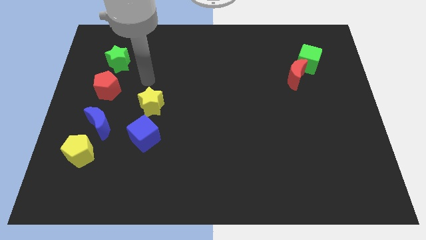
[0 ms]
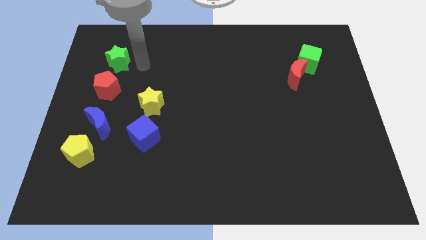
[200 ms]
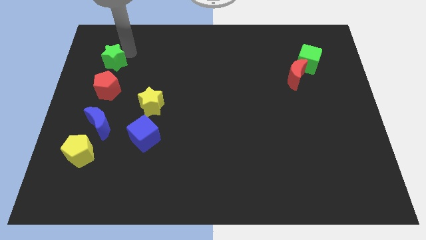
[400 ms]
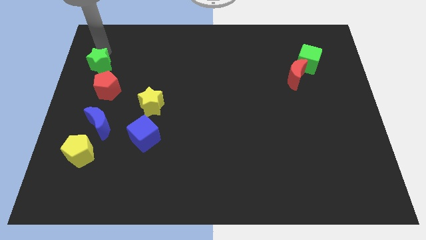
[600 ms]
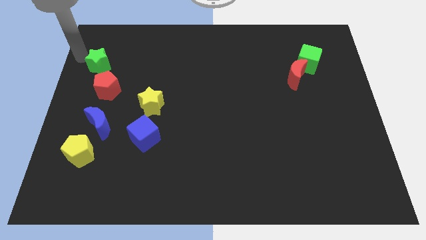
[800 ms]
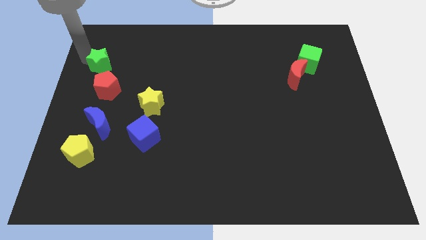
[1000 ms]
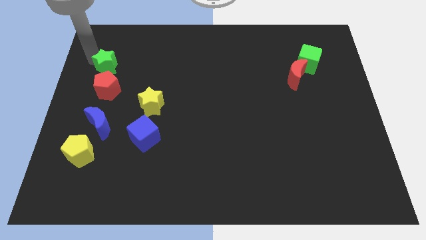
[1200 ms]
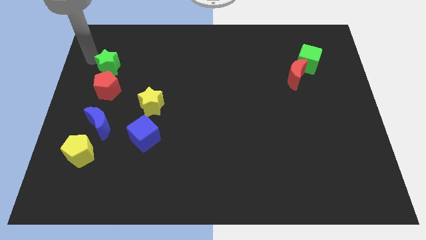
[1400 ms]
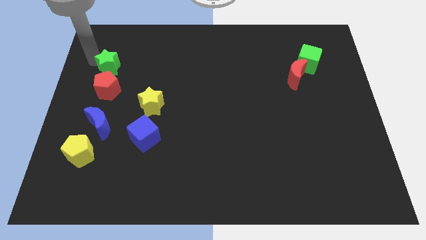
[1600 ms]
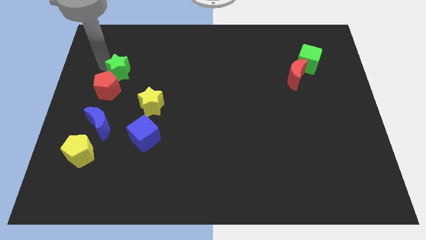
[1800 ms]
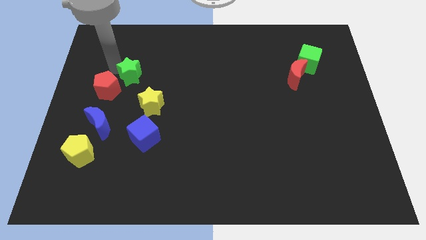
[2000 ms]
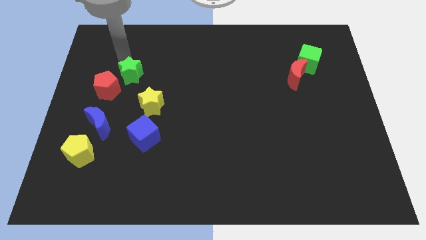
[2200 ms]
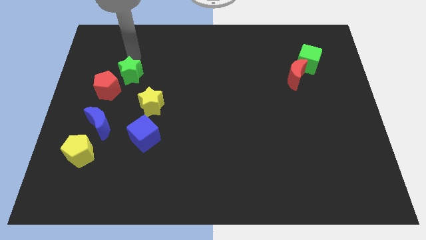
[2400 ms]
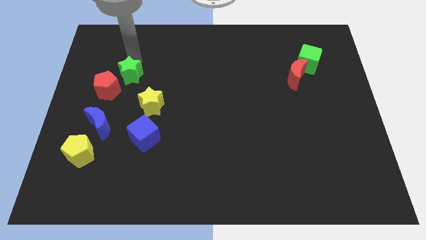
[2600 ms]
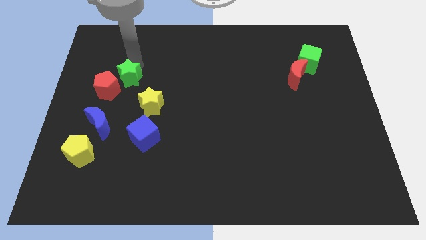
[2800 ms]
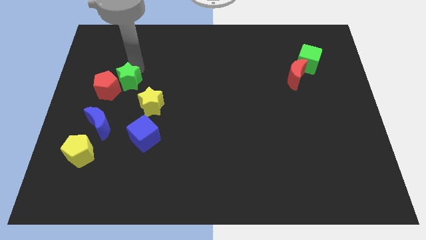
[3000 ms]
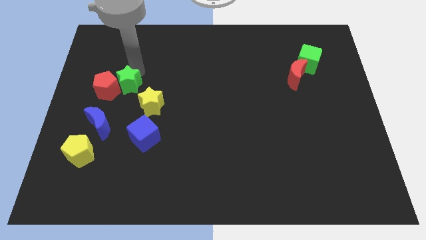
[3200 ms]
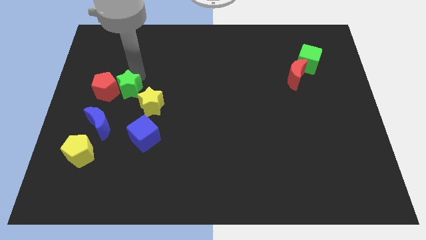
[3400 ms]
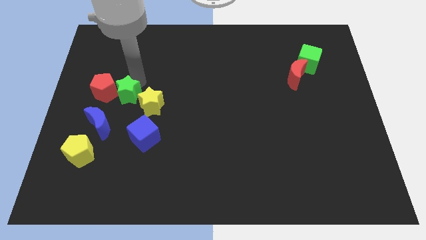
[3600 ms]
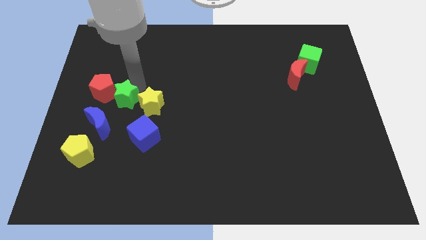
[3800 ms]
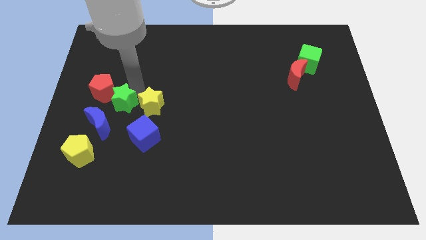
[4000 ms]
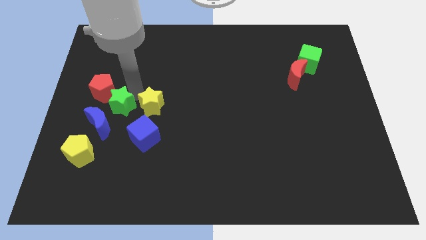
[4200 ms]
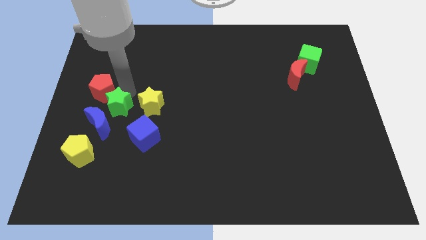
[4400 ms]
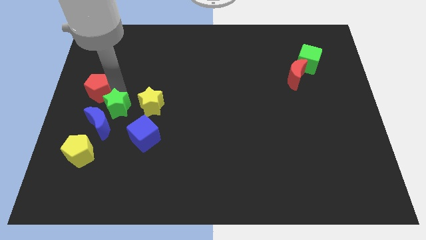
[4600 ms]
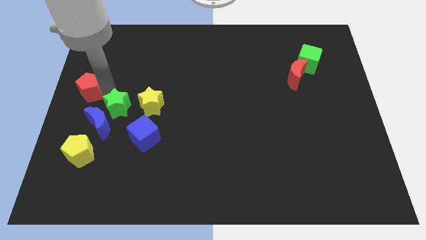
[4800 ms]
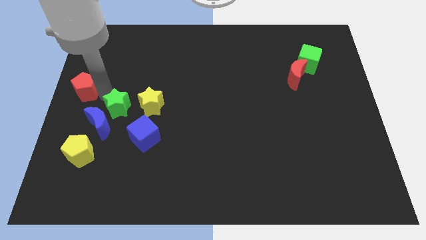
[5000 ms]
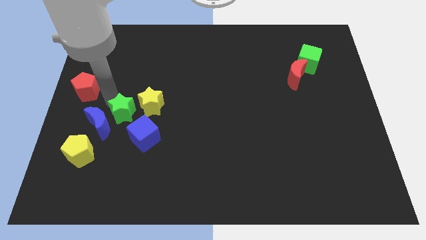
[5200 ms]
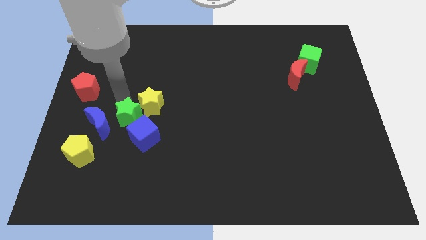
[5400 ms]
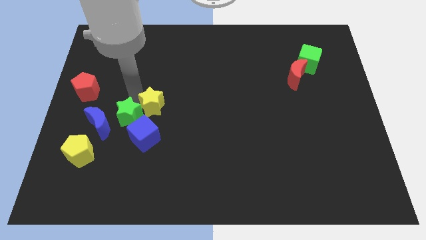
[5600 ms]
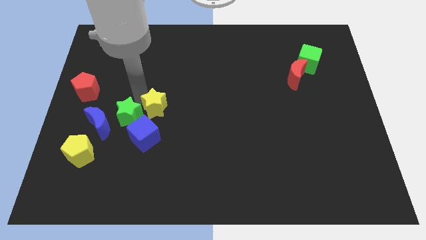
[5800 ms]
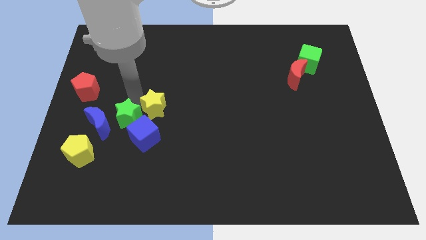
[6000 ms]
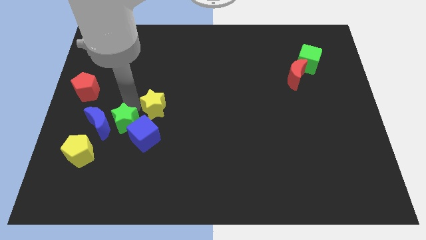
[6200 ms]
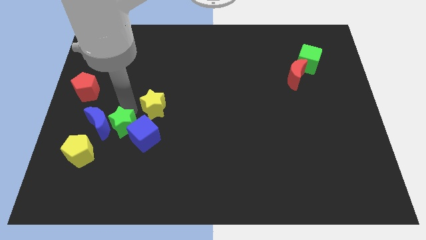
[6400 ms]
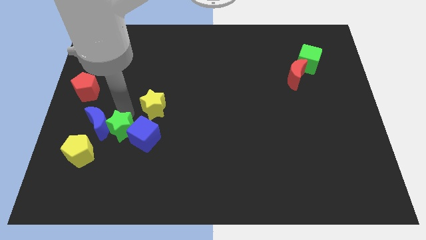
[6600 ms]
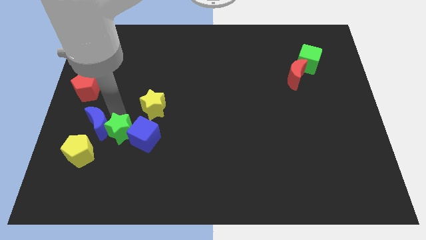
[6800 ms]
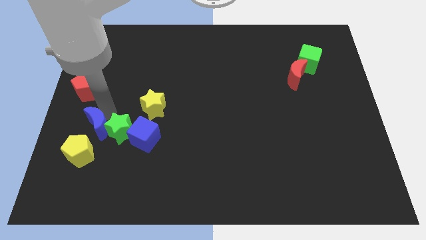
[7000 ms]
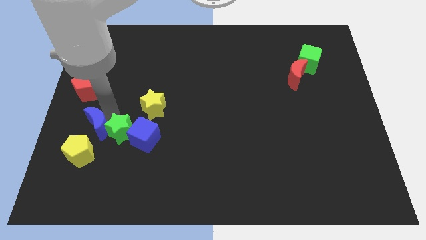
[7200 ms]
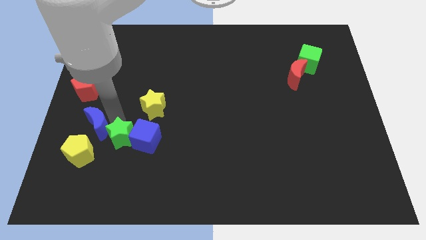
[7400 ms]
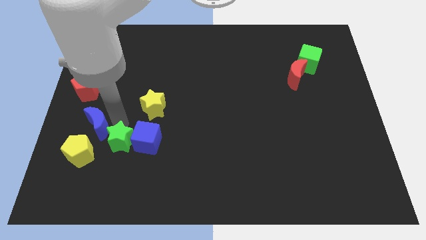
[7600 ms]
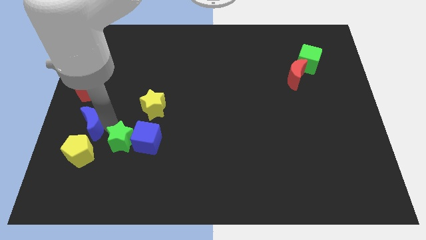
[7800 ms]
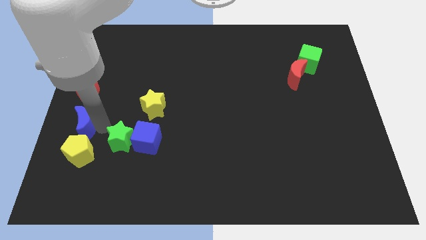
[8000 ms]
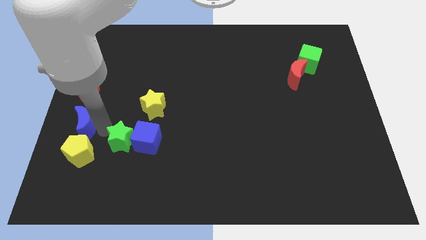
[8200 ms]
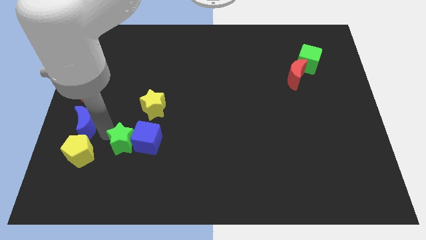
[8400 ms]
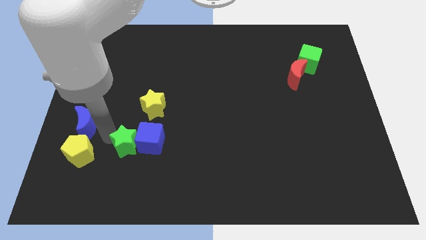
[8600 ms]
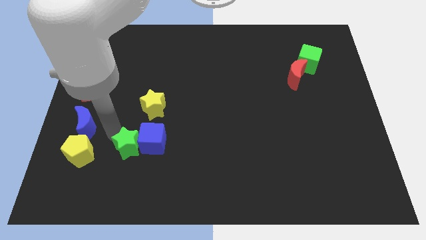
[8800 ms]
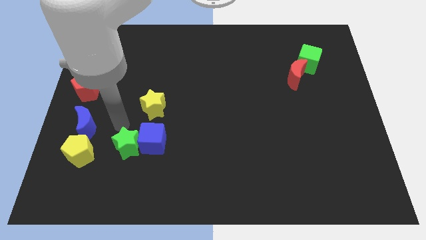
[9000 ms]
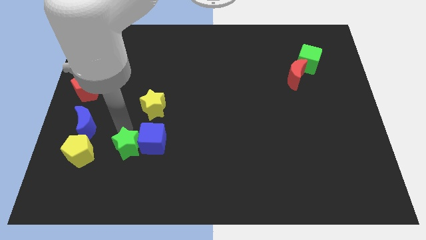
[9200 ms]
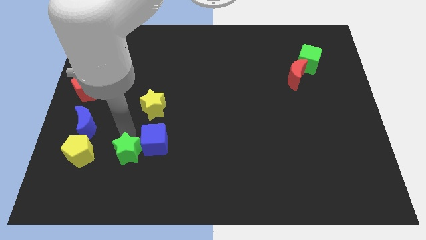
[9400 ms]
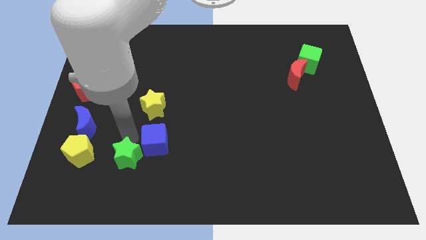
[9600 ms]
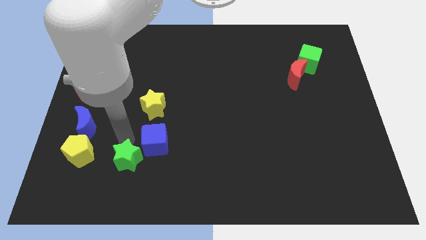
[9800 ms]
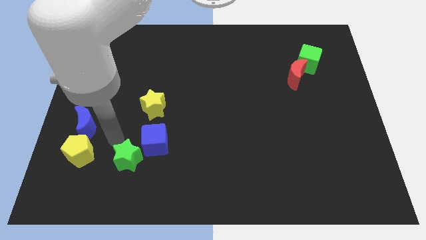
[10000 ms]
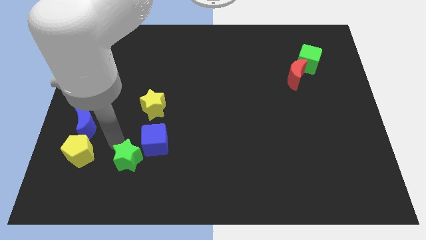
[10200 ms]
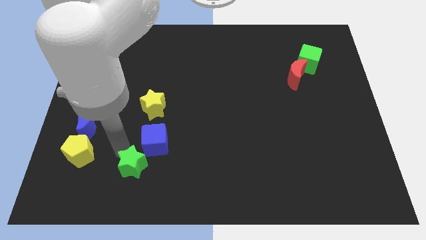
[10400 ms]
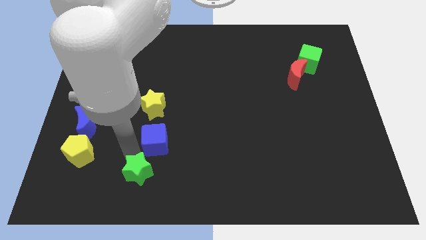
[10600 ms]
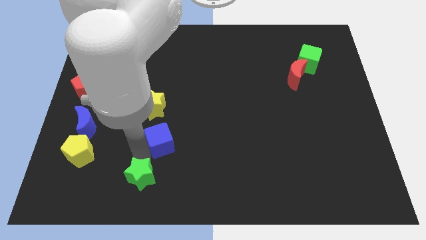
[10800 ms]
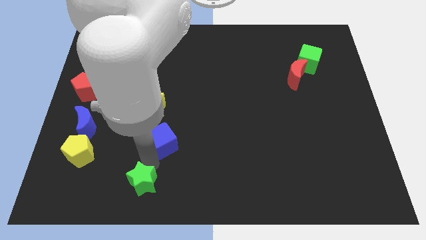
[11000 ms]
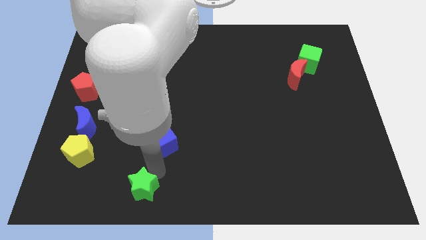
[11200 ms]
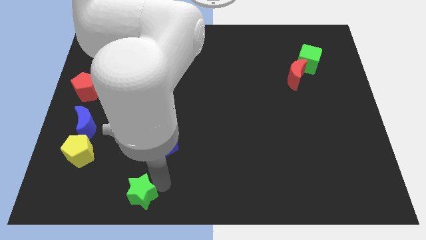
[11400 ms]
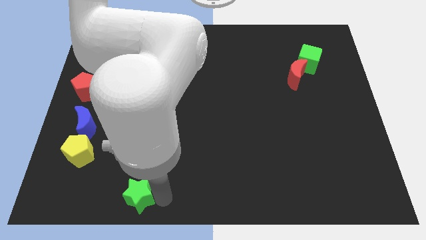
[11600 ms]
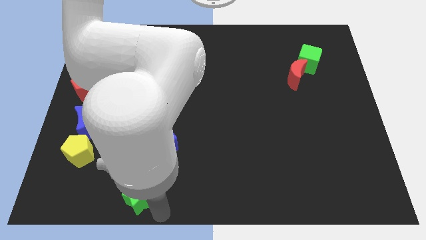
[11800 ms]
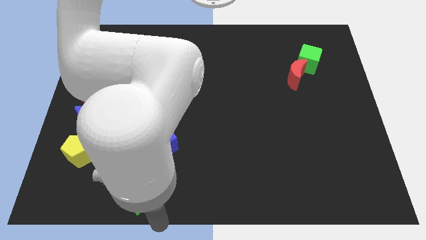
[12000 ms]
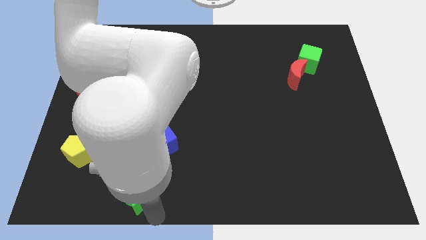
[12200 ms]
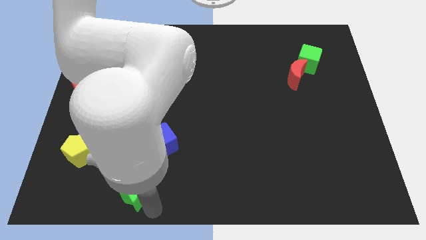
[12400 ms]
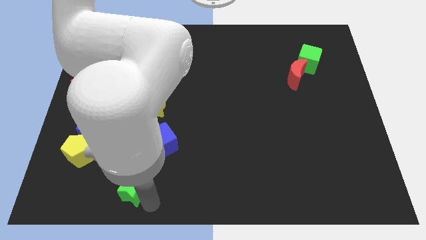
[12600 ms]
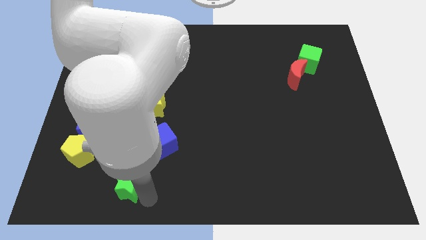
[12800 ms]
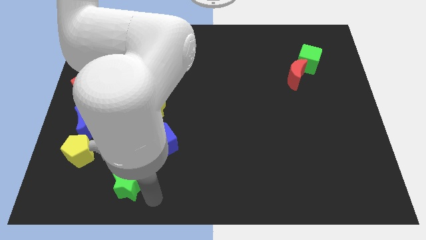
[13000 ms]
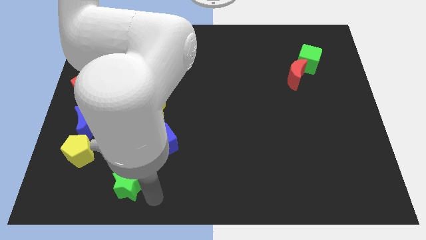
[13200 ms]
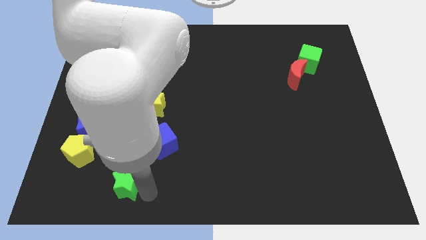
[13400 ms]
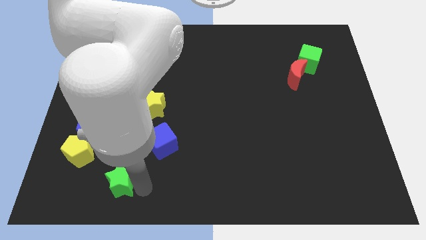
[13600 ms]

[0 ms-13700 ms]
push the green star diagonally down and to the right of the yellow pentagon
